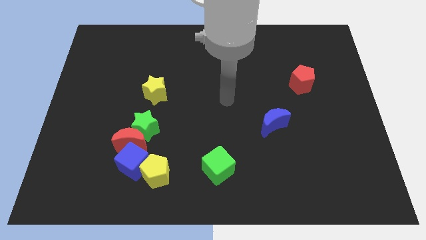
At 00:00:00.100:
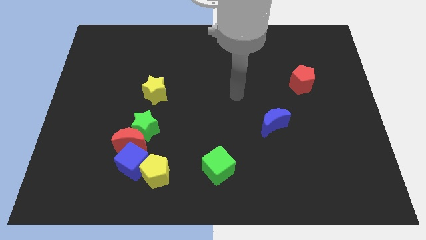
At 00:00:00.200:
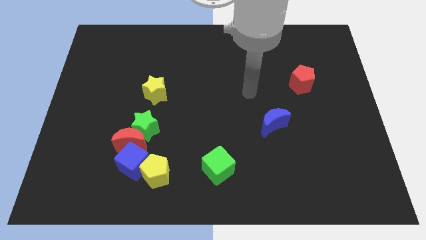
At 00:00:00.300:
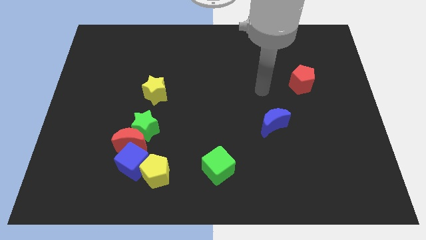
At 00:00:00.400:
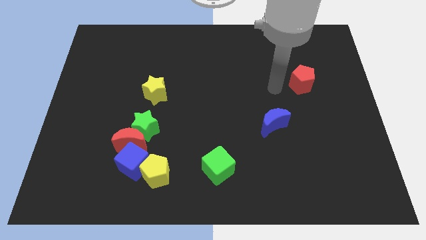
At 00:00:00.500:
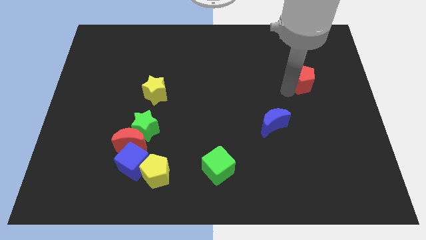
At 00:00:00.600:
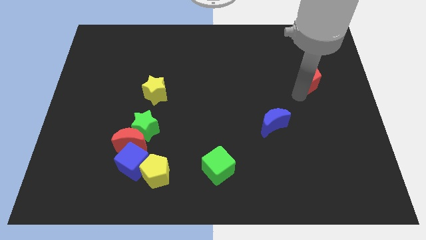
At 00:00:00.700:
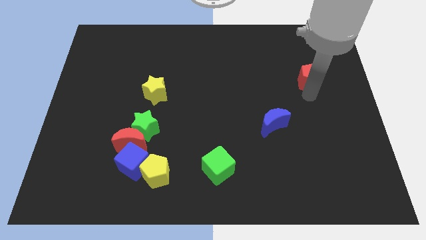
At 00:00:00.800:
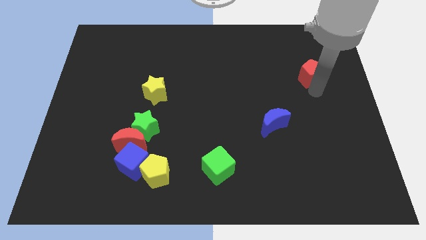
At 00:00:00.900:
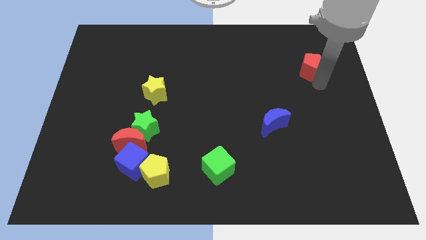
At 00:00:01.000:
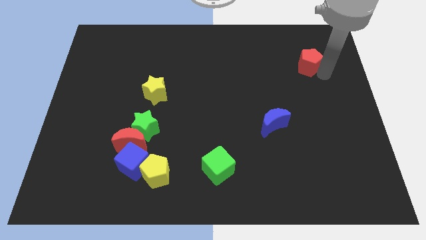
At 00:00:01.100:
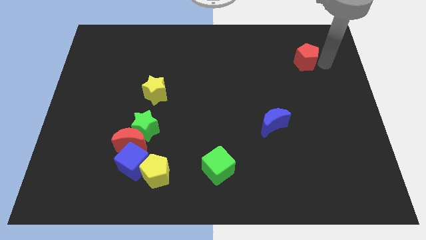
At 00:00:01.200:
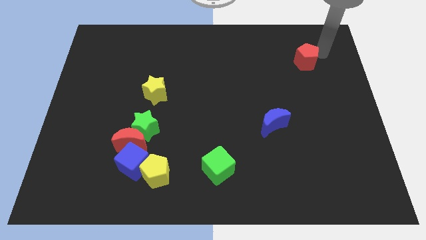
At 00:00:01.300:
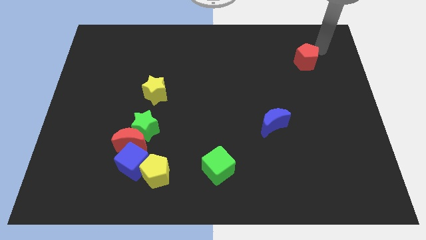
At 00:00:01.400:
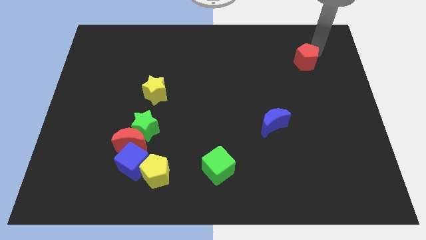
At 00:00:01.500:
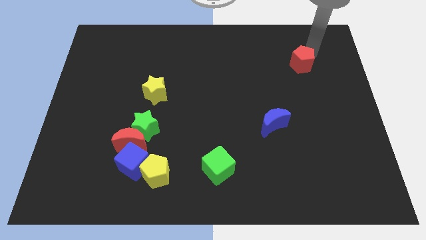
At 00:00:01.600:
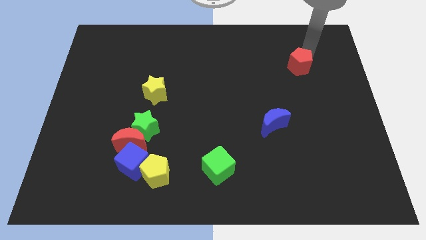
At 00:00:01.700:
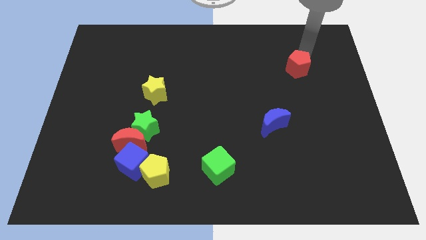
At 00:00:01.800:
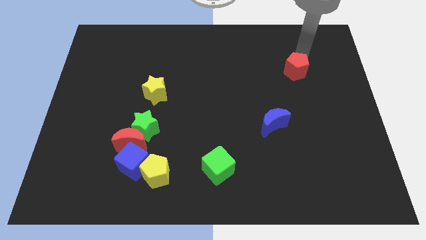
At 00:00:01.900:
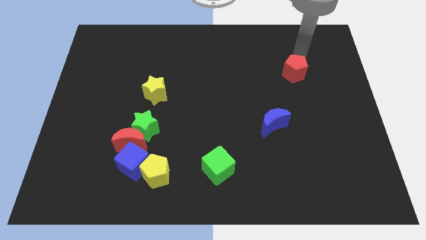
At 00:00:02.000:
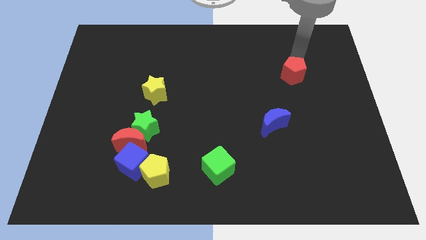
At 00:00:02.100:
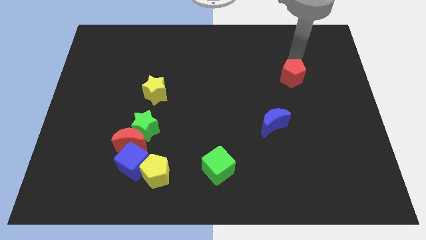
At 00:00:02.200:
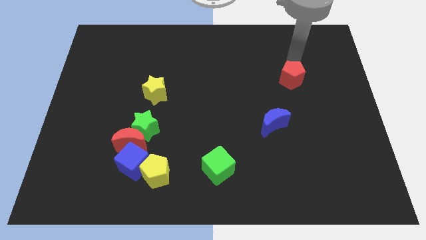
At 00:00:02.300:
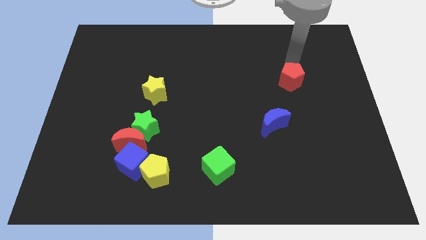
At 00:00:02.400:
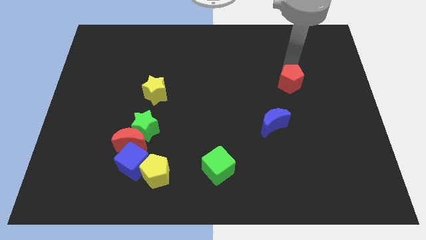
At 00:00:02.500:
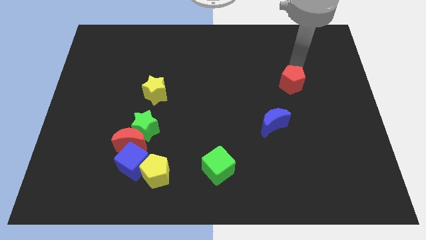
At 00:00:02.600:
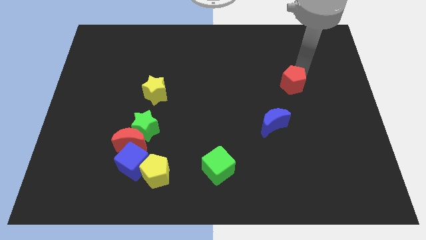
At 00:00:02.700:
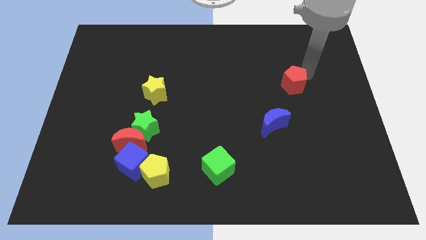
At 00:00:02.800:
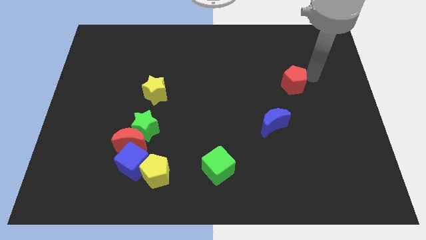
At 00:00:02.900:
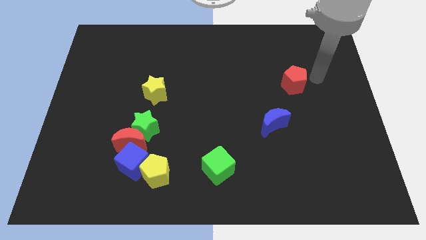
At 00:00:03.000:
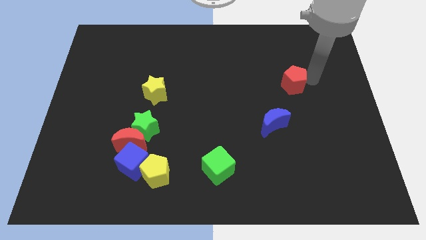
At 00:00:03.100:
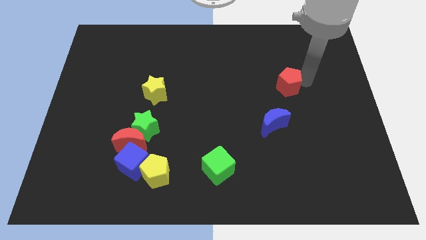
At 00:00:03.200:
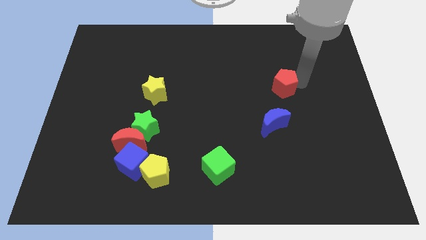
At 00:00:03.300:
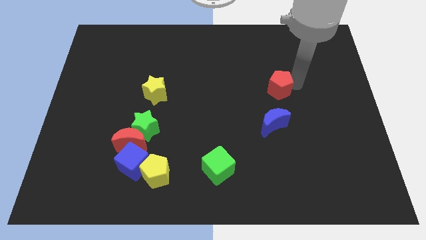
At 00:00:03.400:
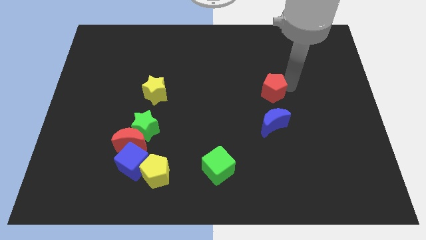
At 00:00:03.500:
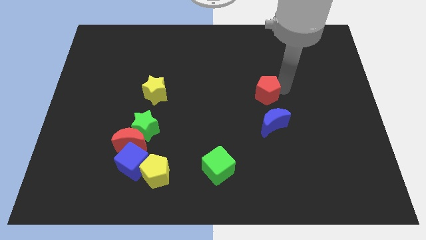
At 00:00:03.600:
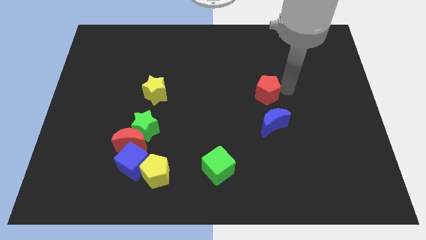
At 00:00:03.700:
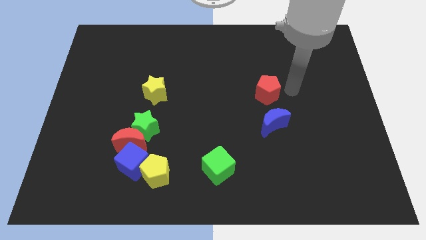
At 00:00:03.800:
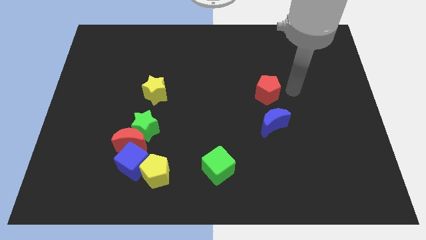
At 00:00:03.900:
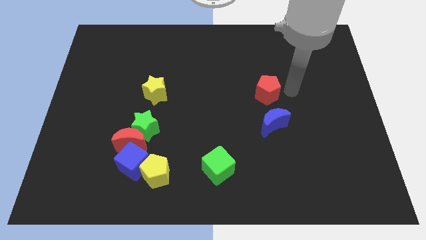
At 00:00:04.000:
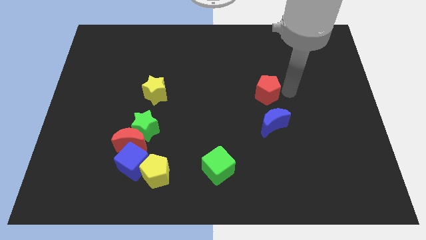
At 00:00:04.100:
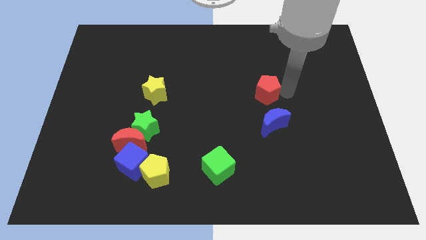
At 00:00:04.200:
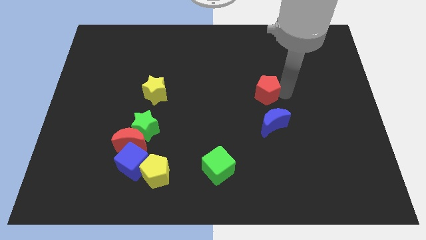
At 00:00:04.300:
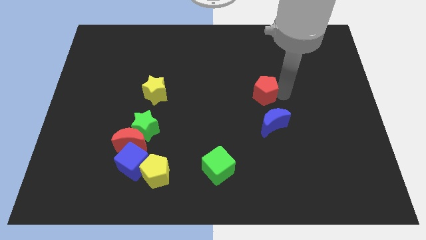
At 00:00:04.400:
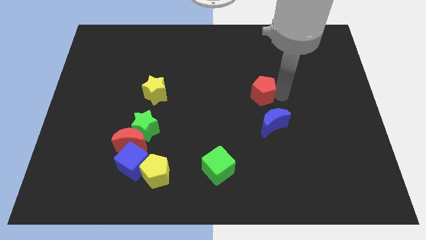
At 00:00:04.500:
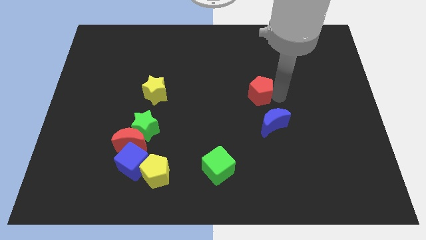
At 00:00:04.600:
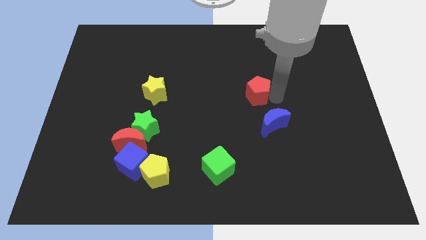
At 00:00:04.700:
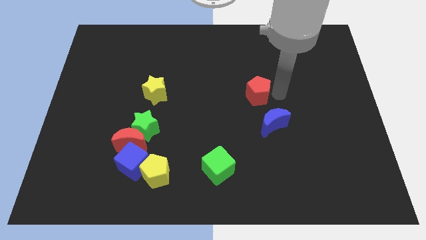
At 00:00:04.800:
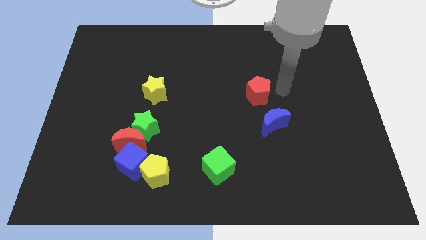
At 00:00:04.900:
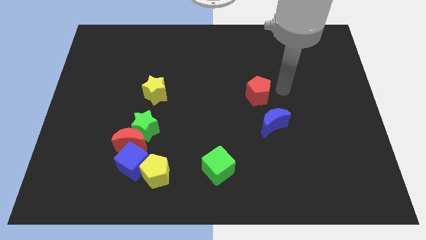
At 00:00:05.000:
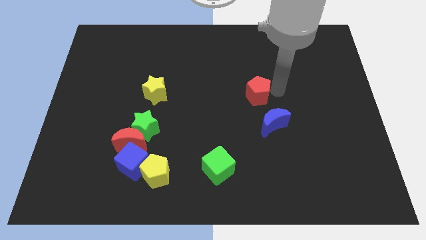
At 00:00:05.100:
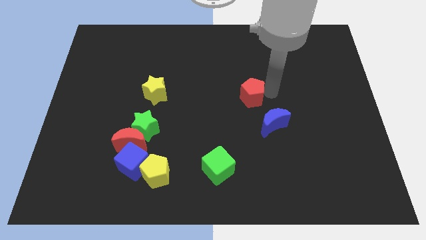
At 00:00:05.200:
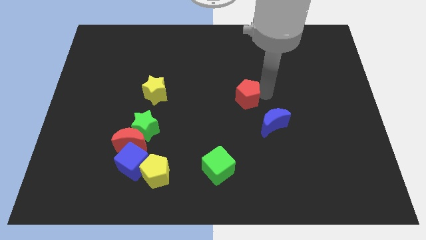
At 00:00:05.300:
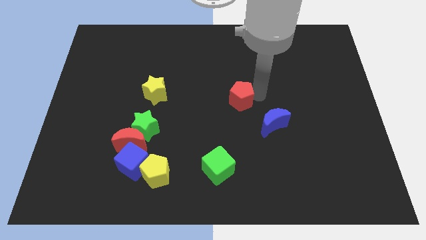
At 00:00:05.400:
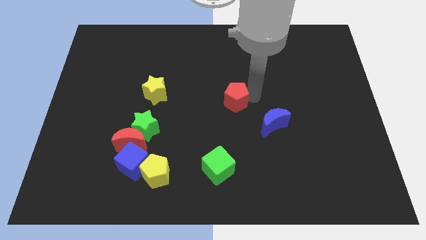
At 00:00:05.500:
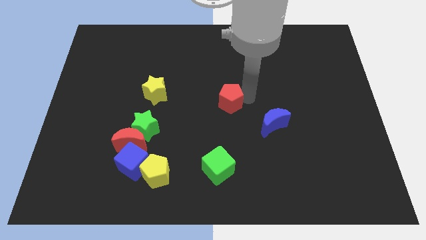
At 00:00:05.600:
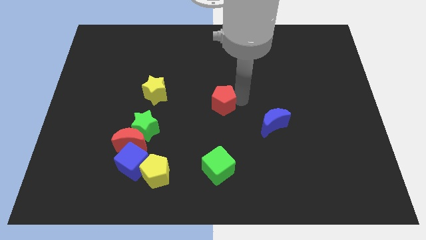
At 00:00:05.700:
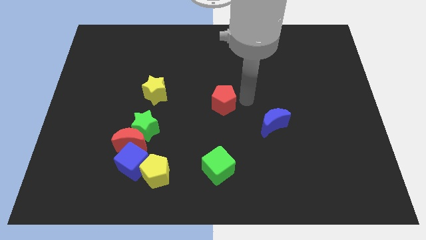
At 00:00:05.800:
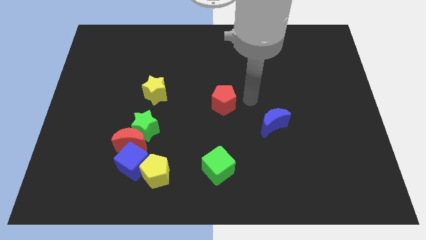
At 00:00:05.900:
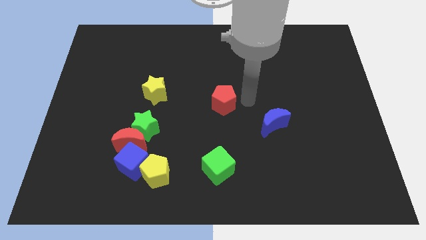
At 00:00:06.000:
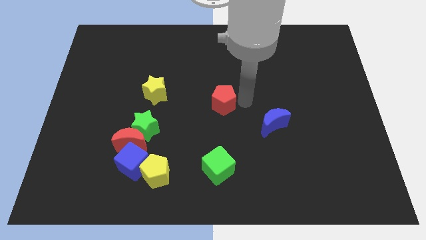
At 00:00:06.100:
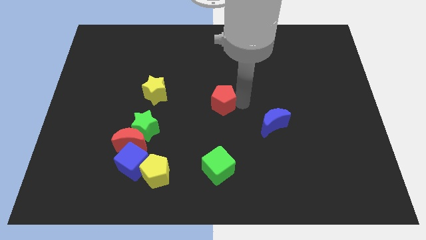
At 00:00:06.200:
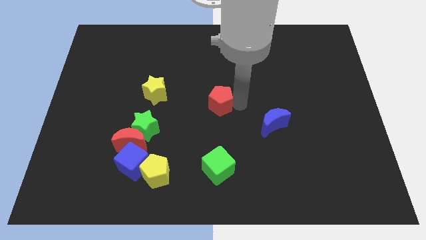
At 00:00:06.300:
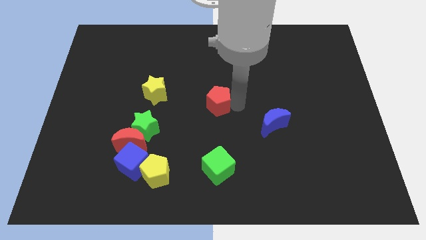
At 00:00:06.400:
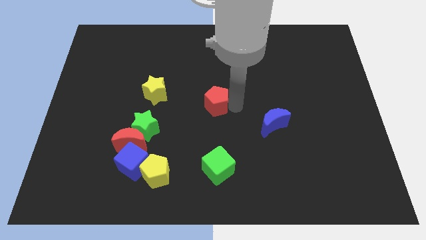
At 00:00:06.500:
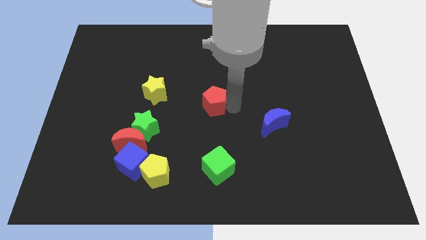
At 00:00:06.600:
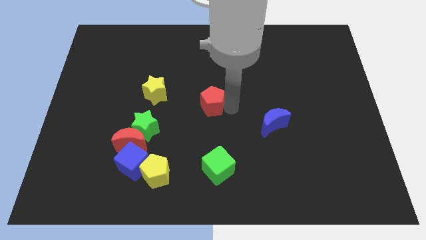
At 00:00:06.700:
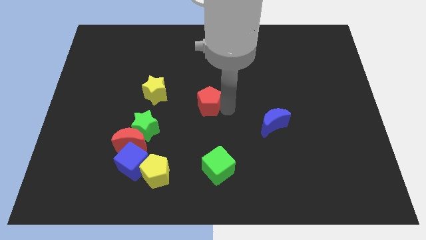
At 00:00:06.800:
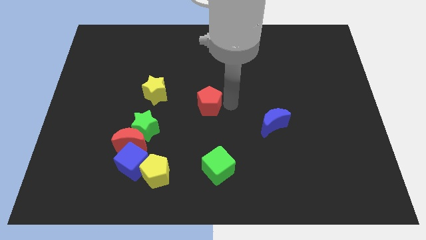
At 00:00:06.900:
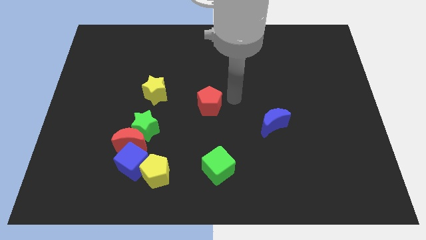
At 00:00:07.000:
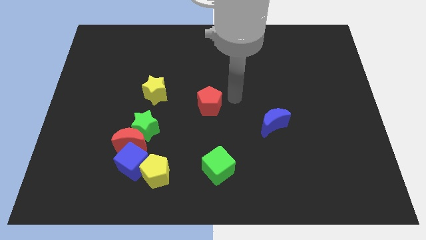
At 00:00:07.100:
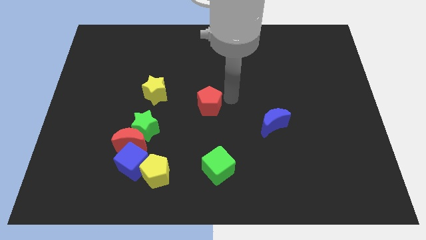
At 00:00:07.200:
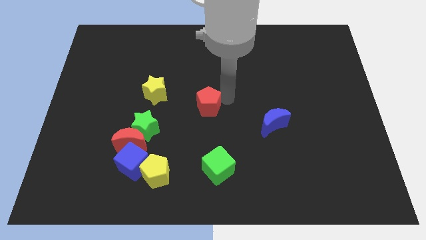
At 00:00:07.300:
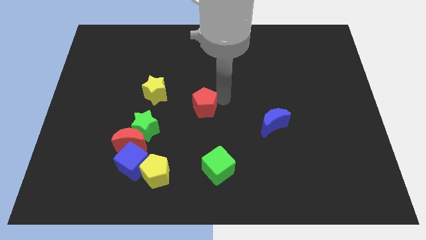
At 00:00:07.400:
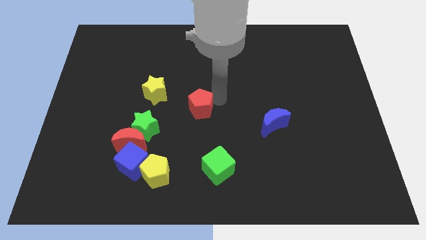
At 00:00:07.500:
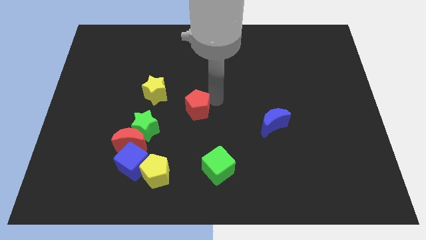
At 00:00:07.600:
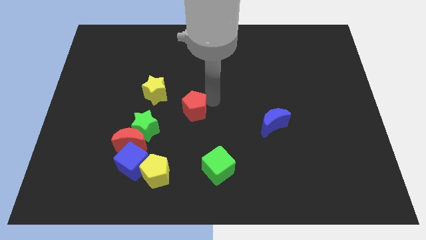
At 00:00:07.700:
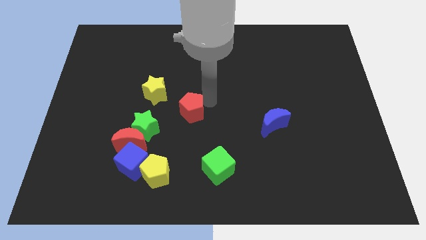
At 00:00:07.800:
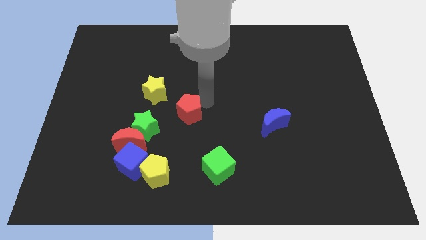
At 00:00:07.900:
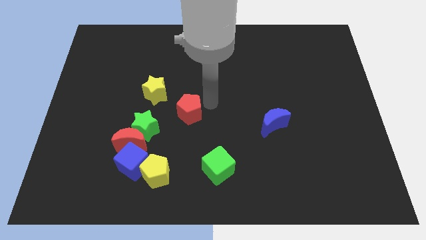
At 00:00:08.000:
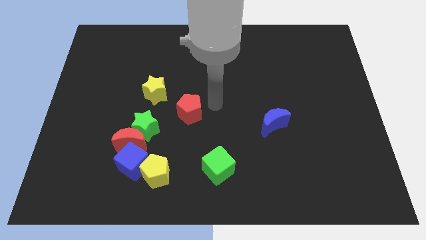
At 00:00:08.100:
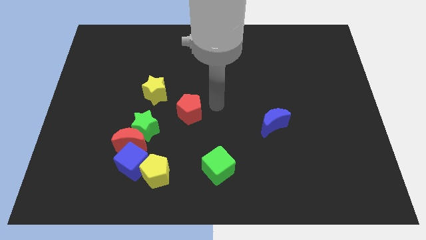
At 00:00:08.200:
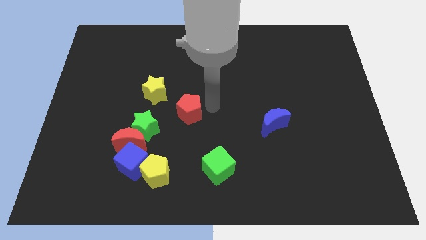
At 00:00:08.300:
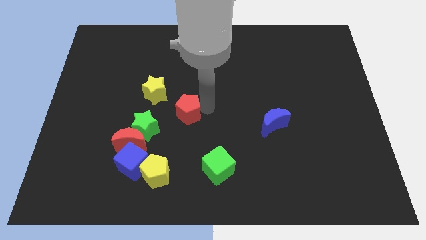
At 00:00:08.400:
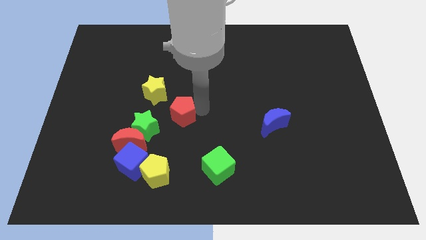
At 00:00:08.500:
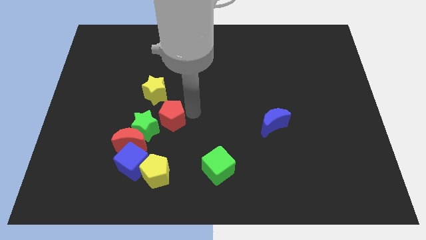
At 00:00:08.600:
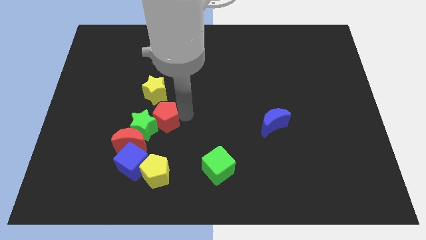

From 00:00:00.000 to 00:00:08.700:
put the red pentagon close to the green star
